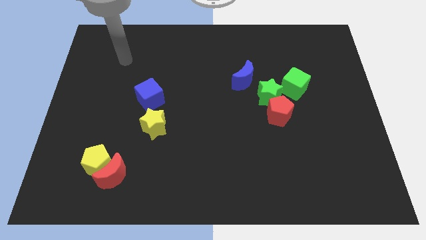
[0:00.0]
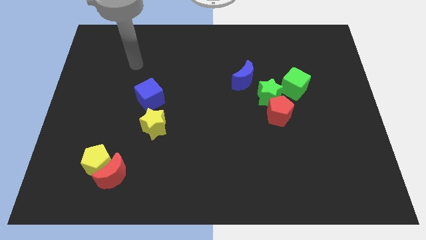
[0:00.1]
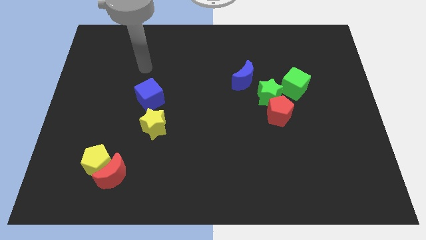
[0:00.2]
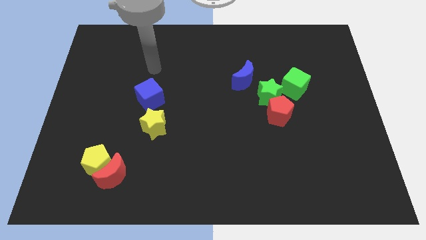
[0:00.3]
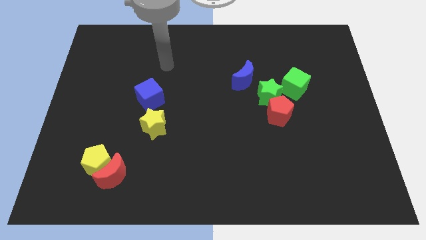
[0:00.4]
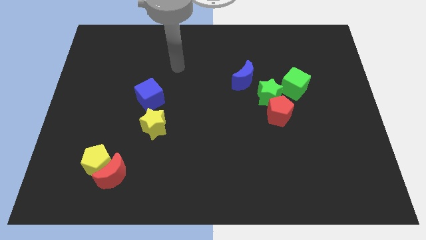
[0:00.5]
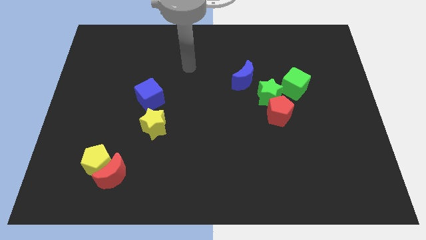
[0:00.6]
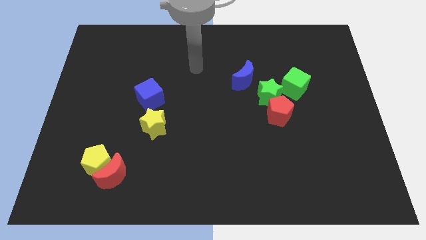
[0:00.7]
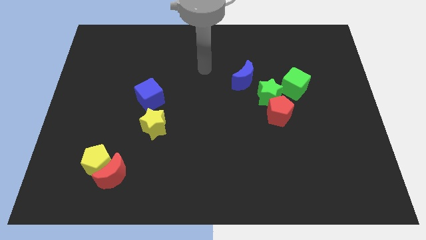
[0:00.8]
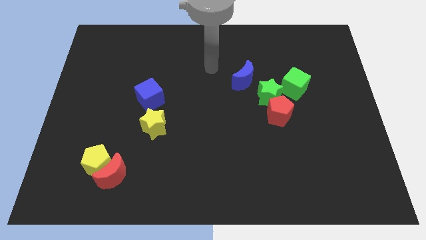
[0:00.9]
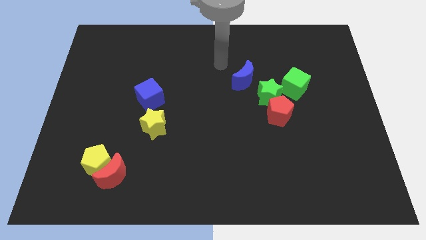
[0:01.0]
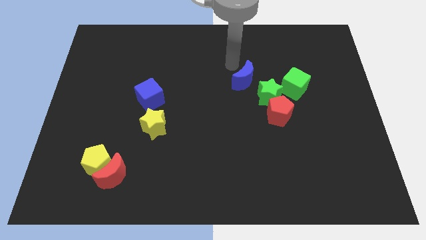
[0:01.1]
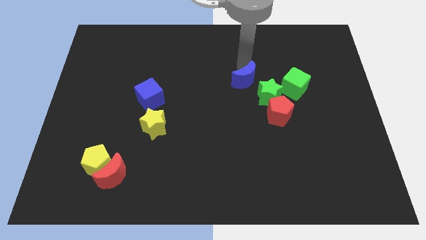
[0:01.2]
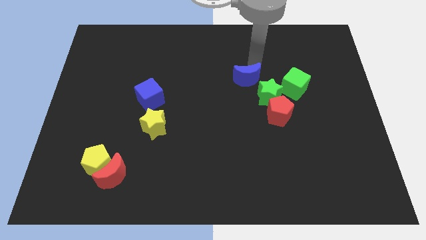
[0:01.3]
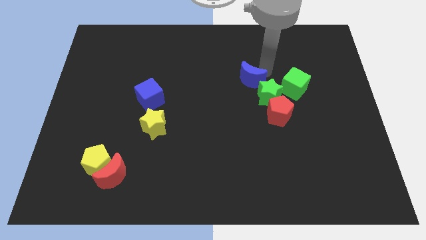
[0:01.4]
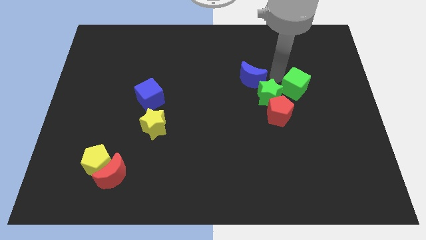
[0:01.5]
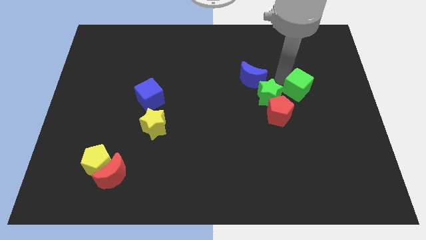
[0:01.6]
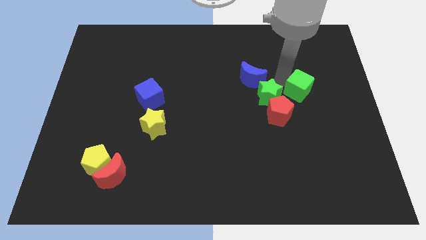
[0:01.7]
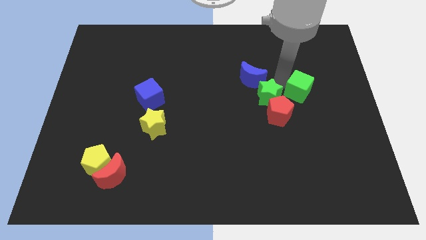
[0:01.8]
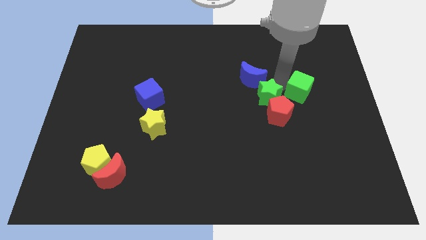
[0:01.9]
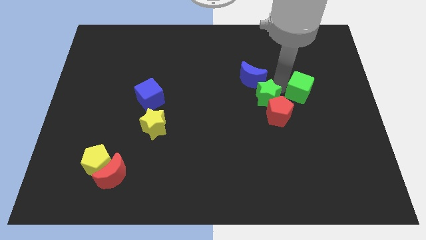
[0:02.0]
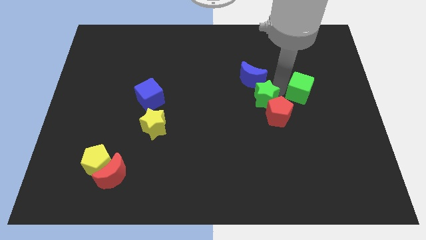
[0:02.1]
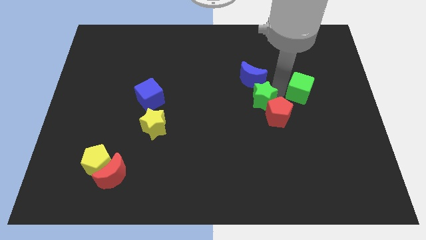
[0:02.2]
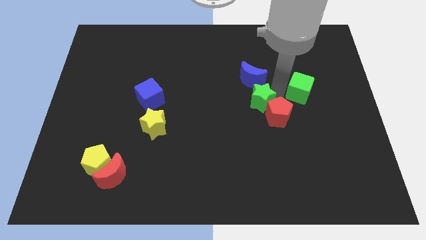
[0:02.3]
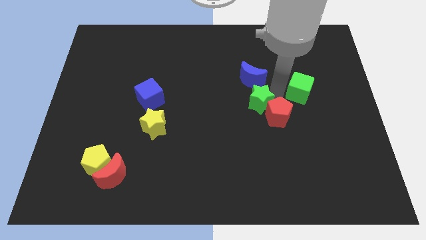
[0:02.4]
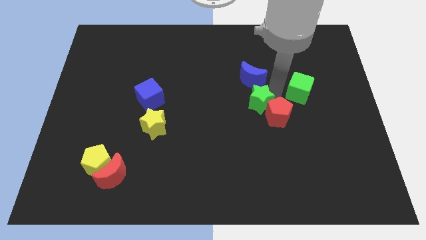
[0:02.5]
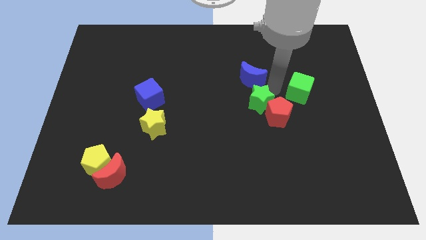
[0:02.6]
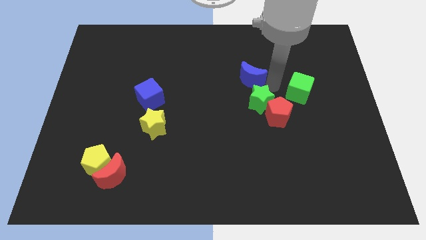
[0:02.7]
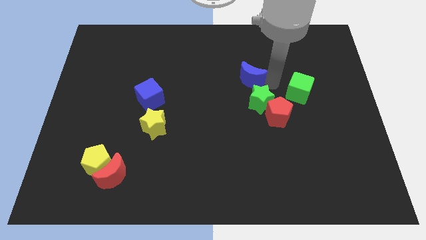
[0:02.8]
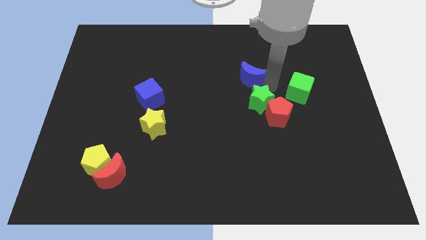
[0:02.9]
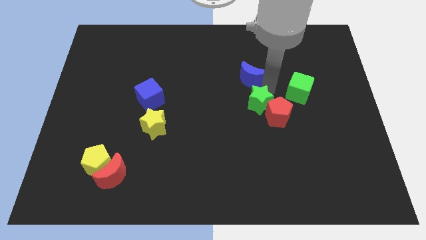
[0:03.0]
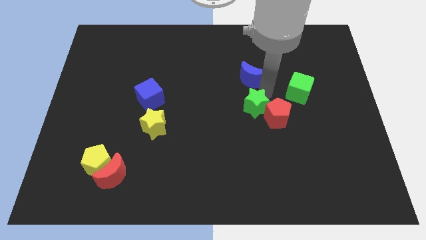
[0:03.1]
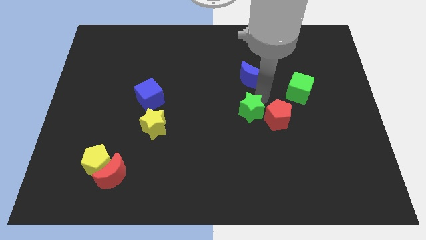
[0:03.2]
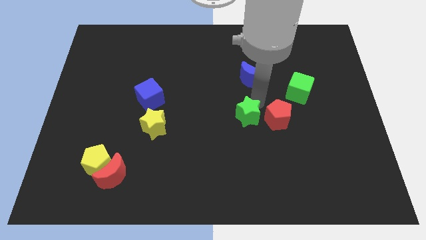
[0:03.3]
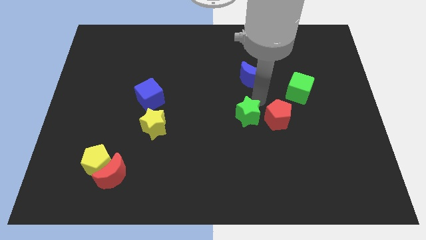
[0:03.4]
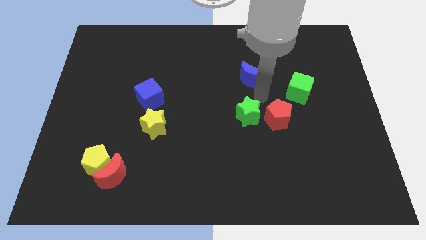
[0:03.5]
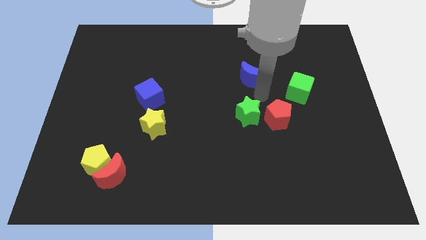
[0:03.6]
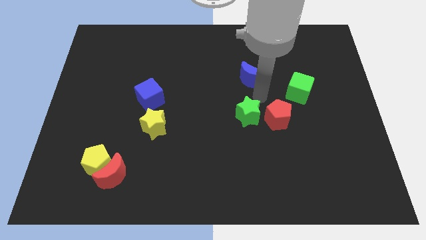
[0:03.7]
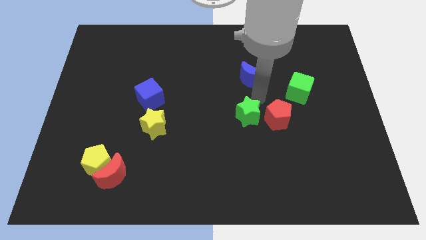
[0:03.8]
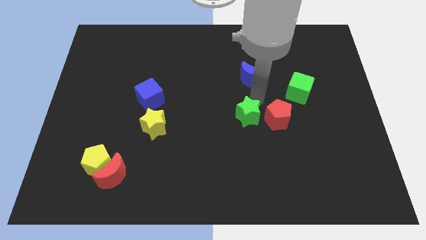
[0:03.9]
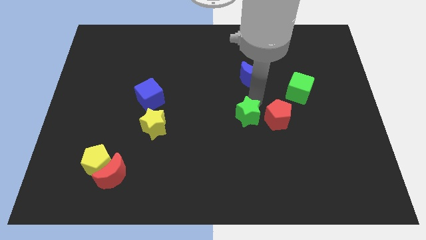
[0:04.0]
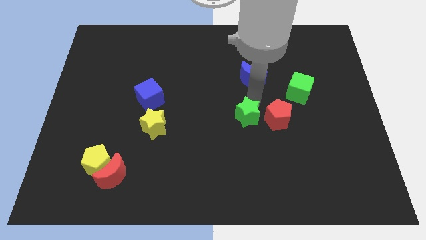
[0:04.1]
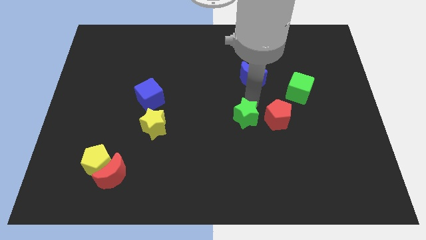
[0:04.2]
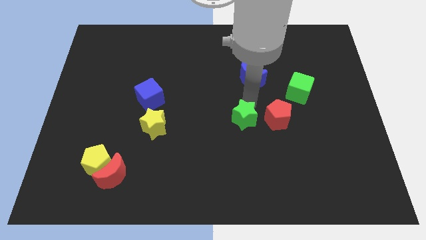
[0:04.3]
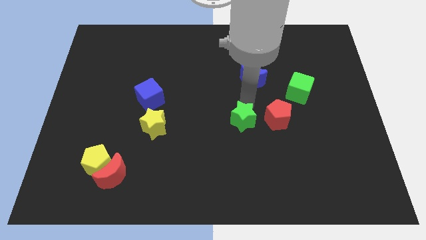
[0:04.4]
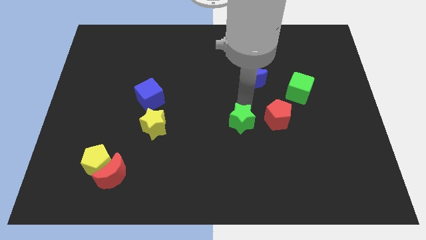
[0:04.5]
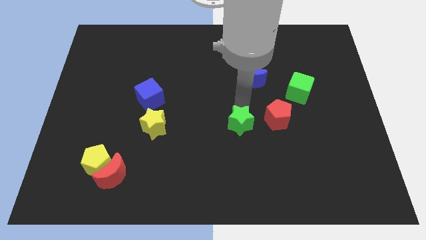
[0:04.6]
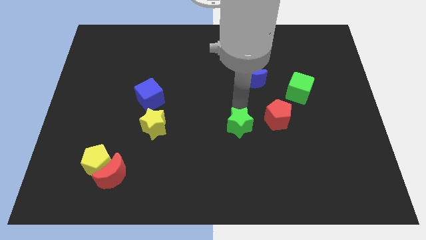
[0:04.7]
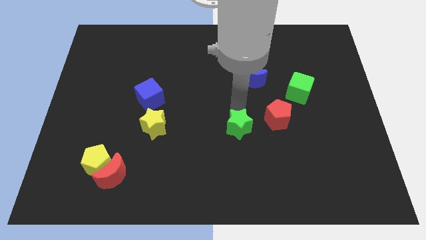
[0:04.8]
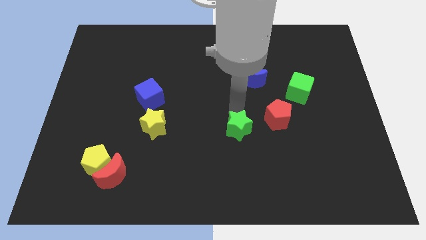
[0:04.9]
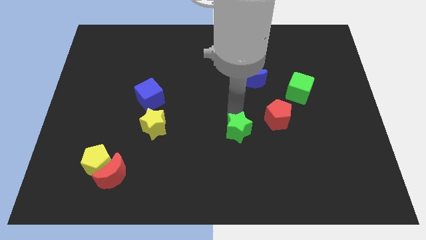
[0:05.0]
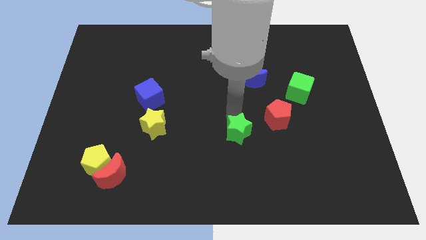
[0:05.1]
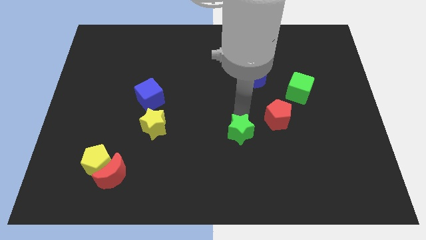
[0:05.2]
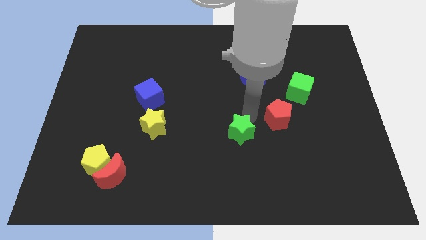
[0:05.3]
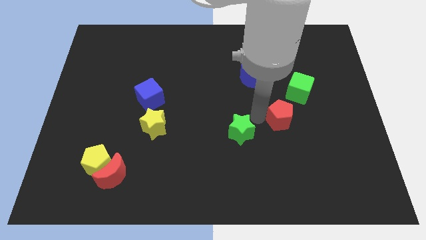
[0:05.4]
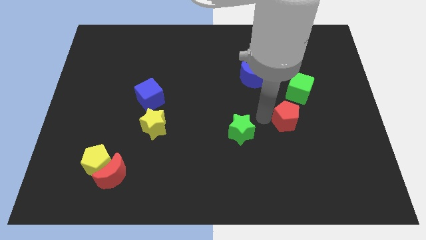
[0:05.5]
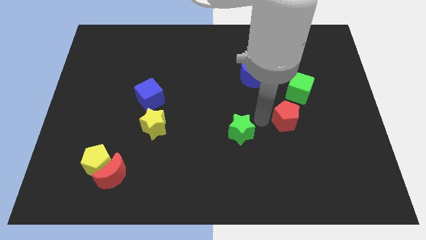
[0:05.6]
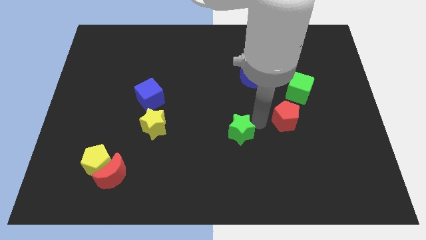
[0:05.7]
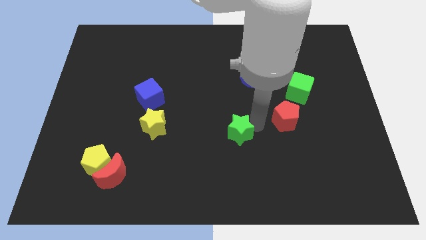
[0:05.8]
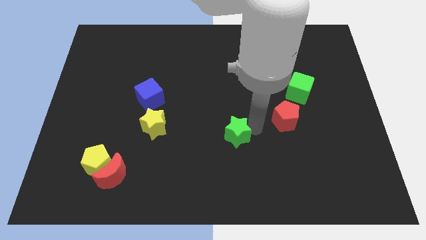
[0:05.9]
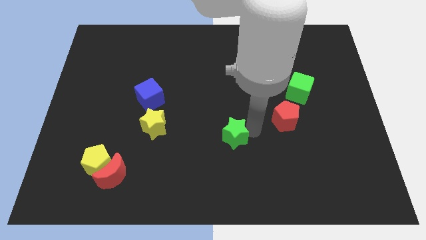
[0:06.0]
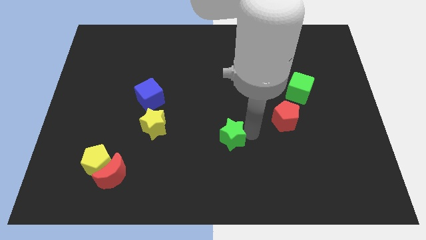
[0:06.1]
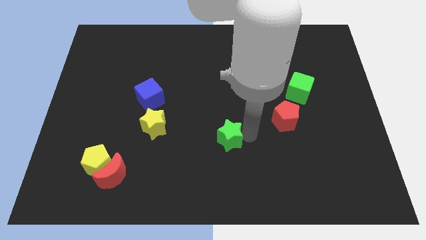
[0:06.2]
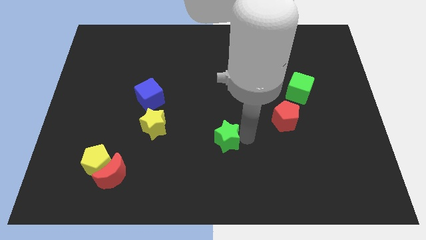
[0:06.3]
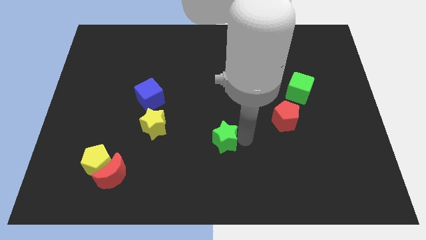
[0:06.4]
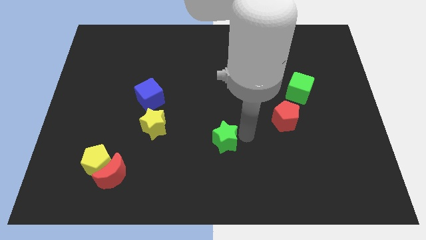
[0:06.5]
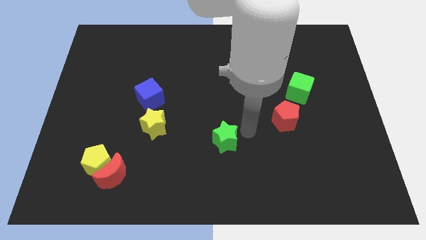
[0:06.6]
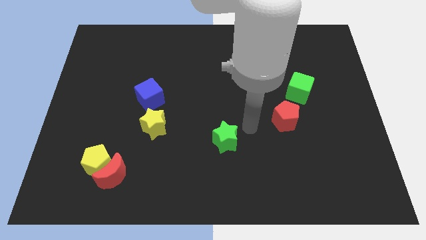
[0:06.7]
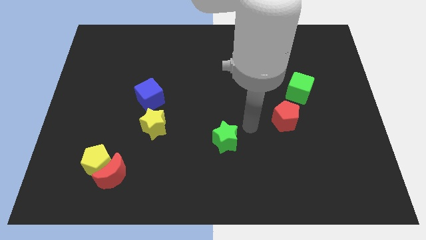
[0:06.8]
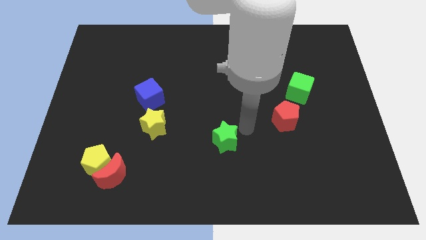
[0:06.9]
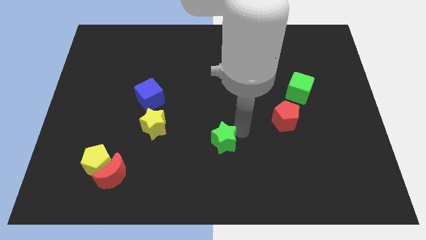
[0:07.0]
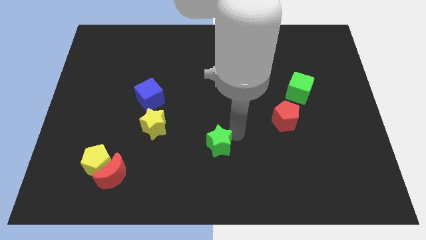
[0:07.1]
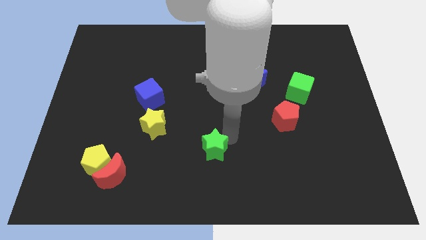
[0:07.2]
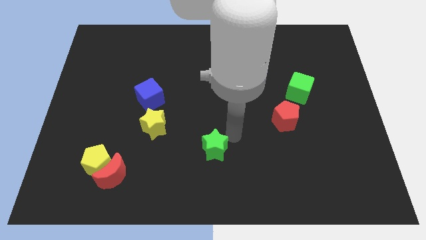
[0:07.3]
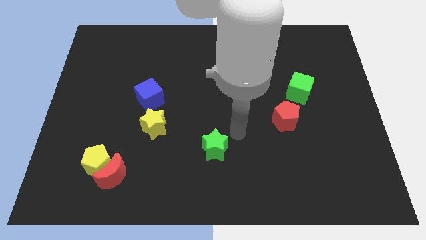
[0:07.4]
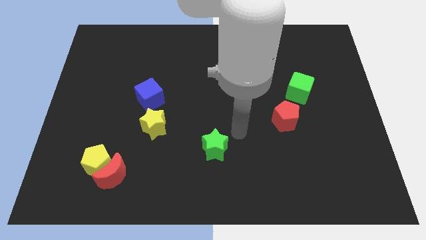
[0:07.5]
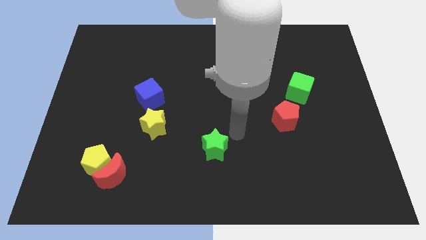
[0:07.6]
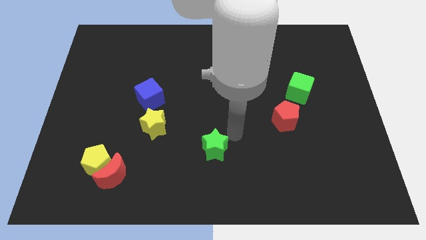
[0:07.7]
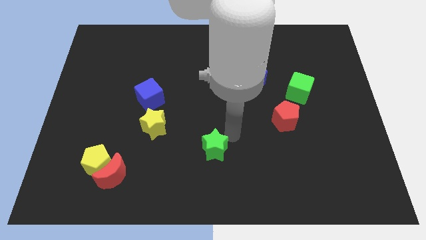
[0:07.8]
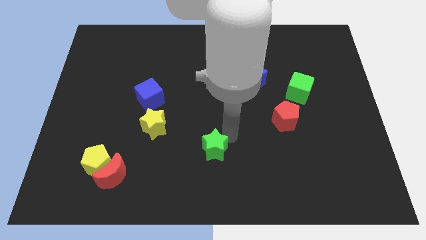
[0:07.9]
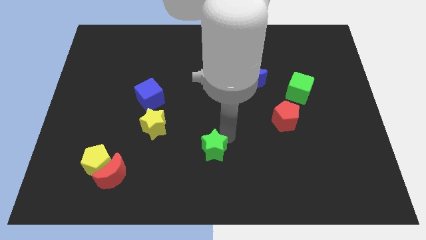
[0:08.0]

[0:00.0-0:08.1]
move the green star down and then left
